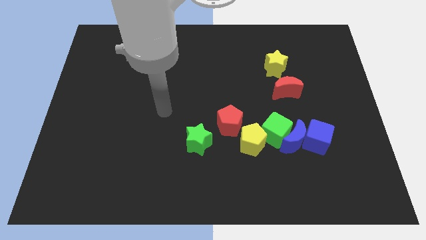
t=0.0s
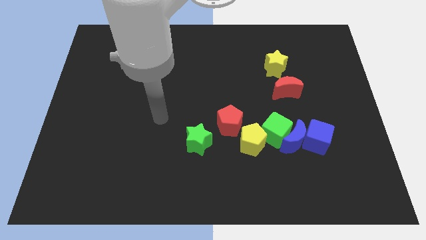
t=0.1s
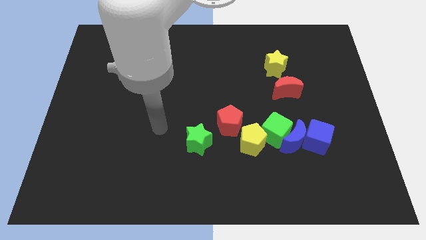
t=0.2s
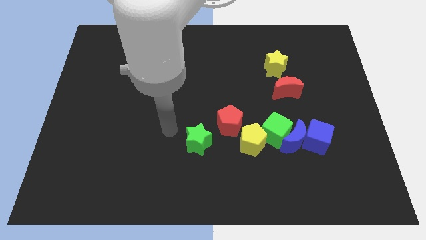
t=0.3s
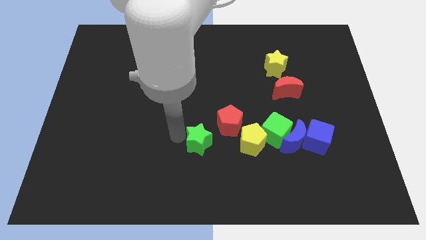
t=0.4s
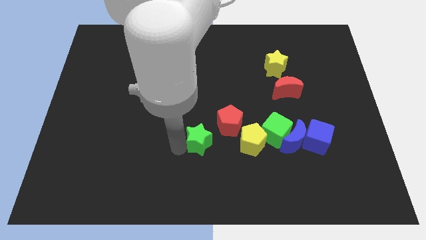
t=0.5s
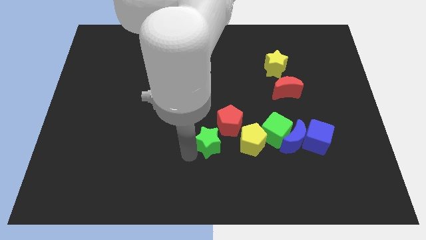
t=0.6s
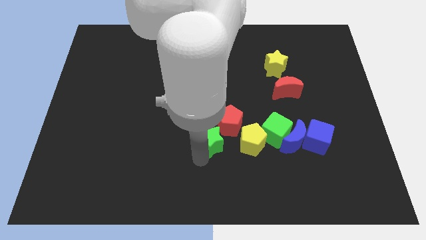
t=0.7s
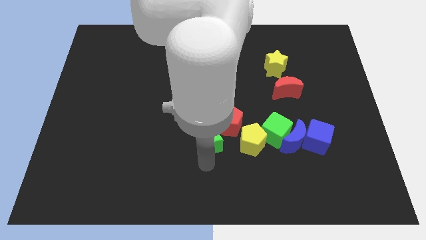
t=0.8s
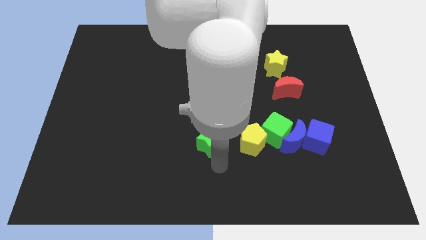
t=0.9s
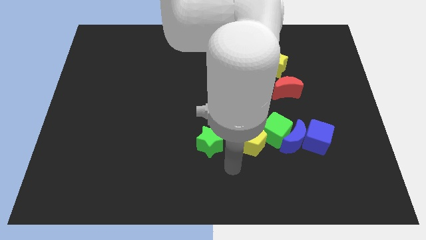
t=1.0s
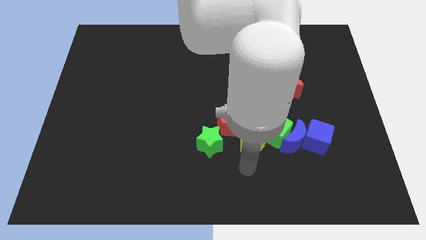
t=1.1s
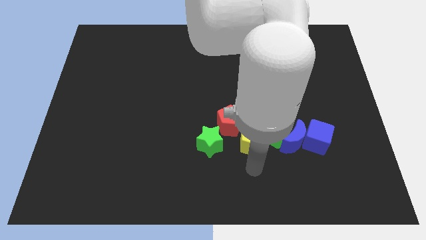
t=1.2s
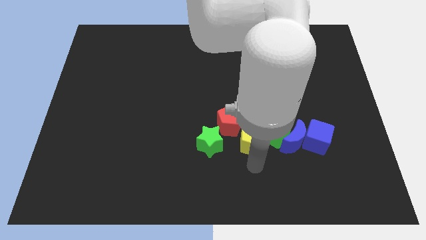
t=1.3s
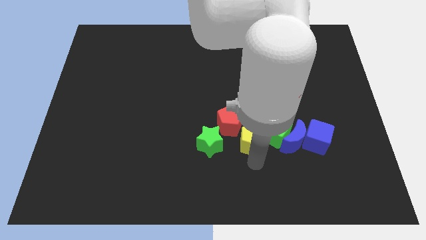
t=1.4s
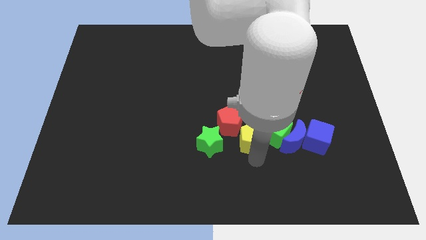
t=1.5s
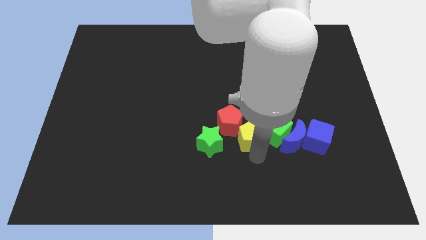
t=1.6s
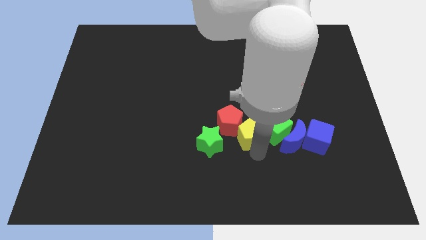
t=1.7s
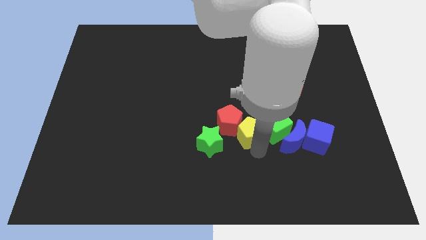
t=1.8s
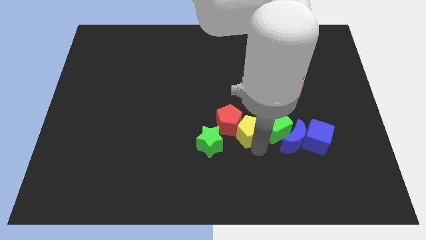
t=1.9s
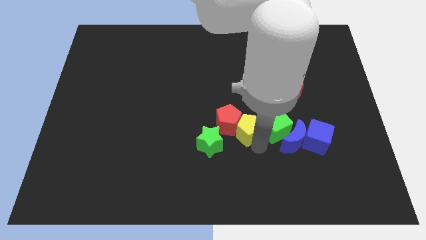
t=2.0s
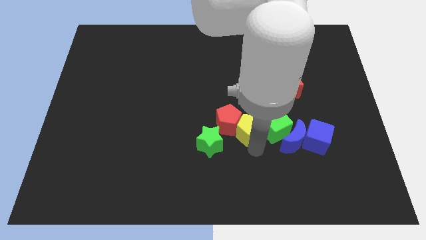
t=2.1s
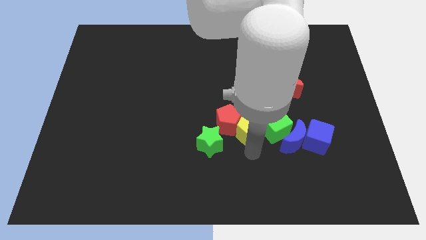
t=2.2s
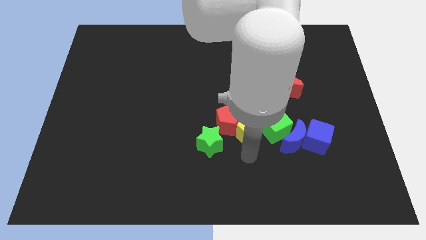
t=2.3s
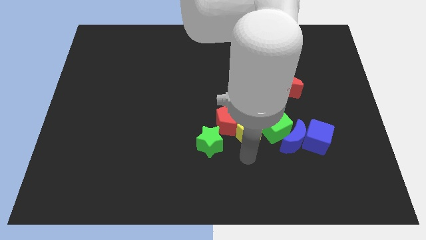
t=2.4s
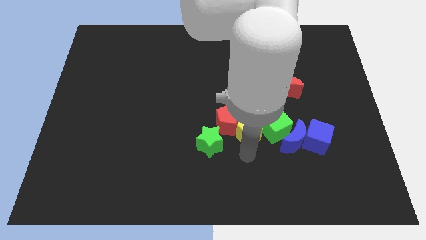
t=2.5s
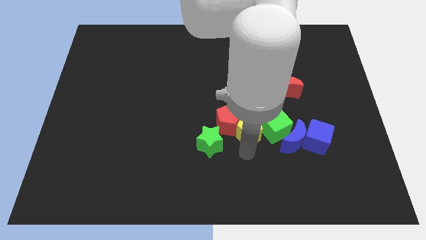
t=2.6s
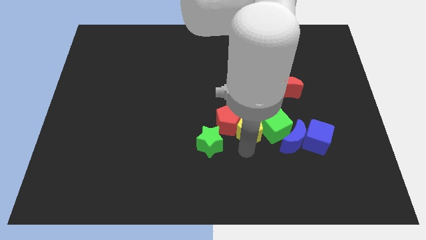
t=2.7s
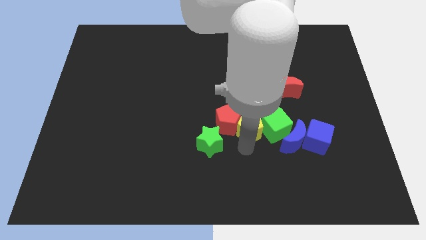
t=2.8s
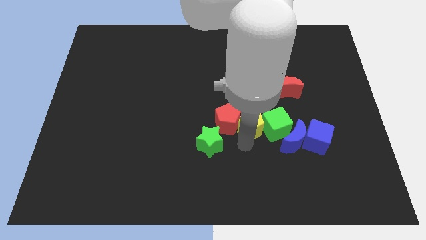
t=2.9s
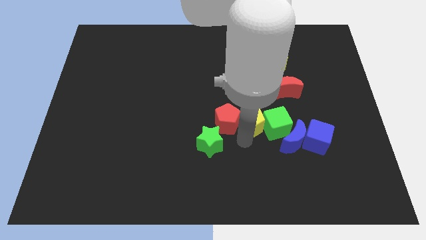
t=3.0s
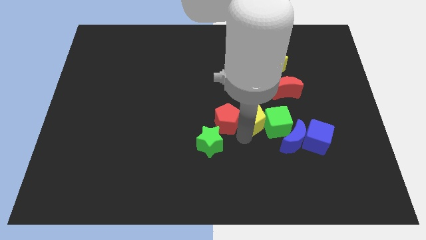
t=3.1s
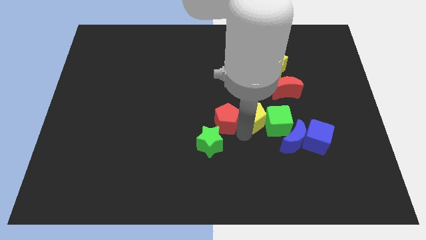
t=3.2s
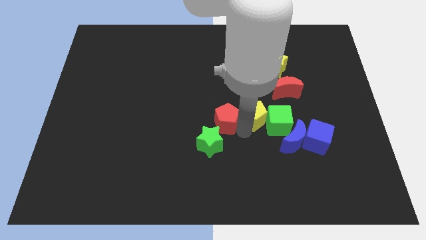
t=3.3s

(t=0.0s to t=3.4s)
move the yellow pentagon up a little bit

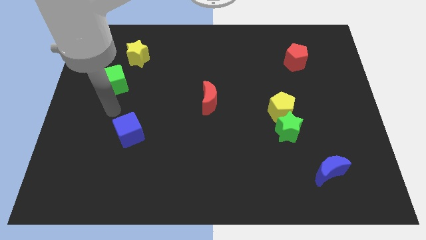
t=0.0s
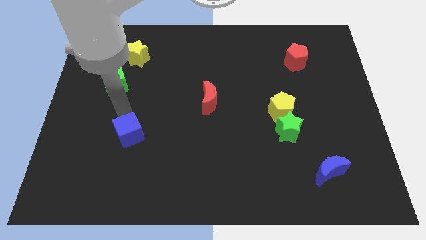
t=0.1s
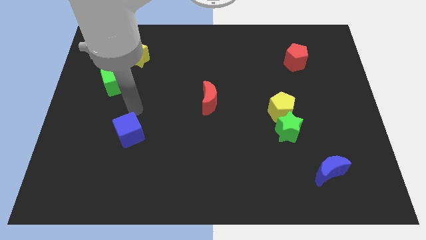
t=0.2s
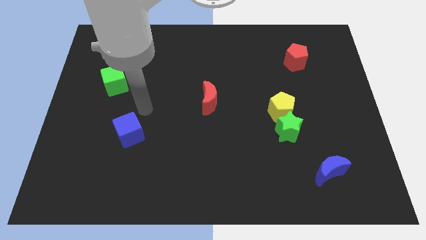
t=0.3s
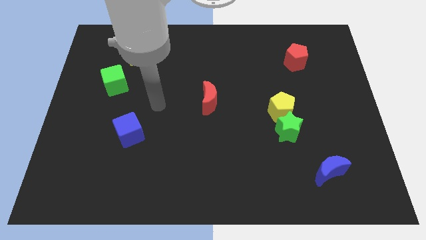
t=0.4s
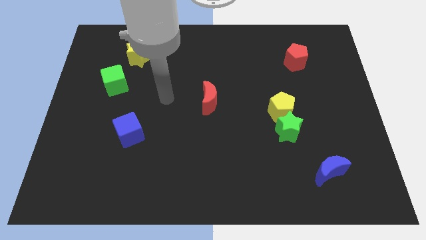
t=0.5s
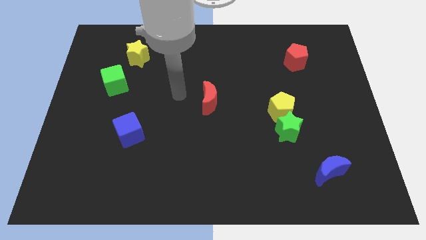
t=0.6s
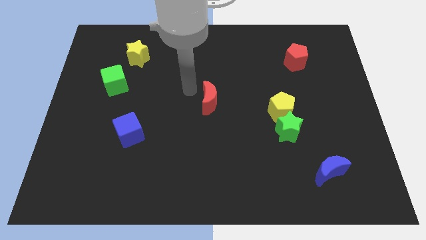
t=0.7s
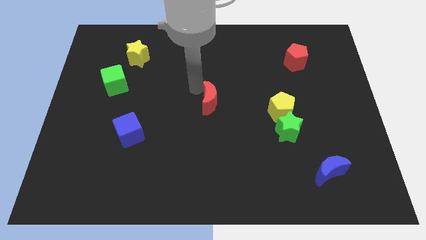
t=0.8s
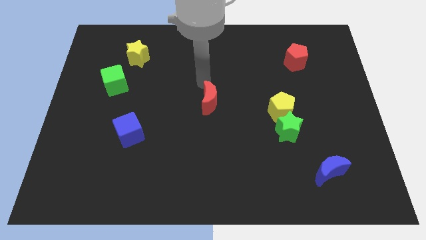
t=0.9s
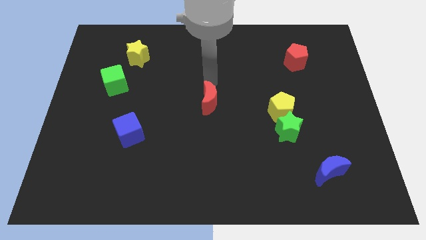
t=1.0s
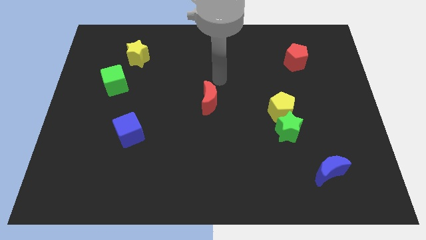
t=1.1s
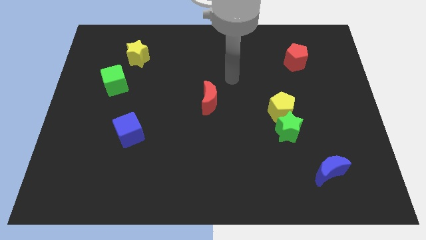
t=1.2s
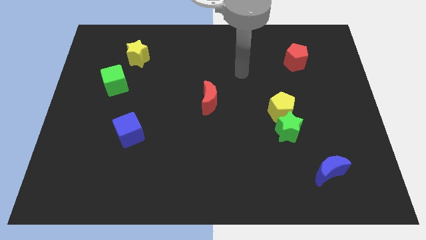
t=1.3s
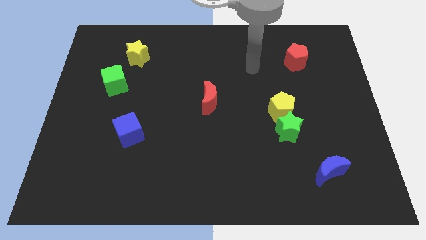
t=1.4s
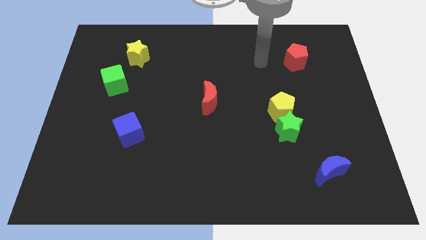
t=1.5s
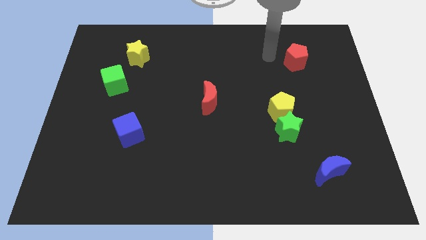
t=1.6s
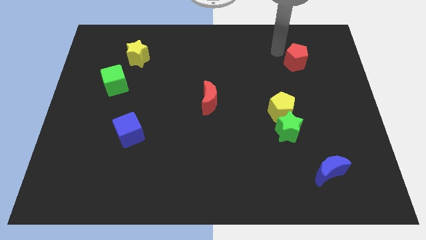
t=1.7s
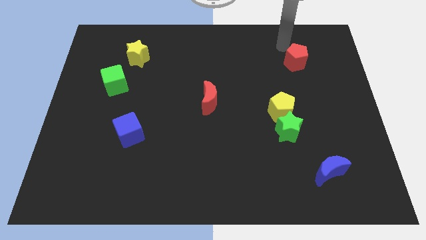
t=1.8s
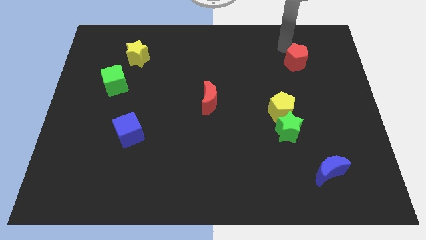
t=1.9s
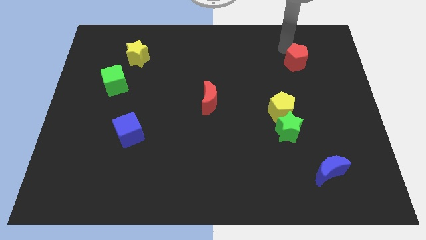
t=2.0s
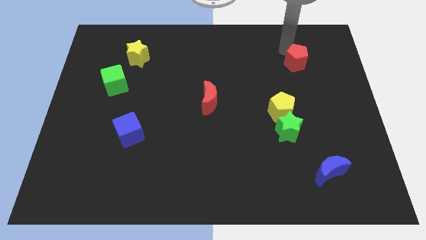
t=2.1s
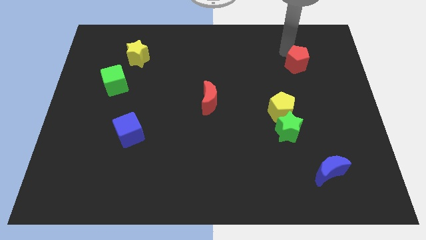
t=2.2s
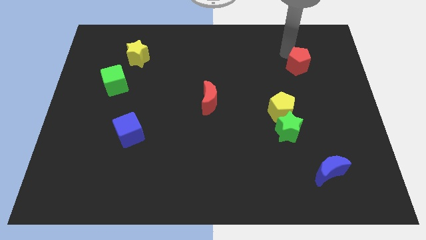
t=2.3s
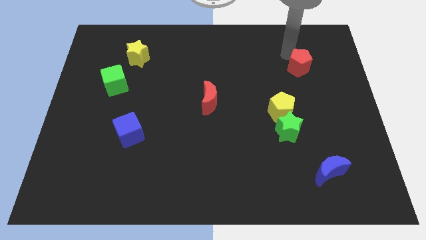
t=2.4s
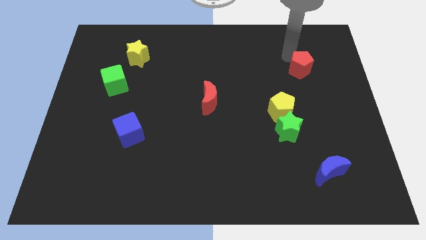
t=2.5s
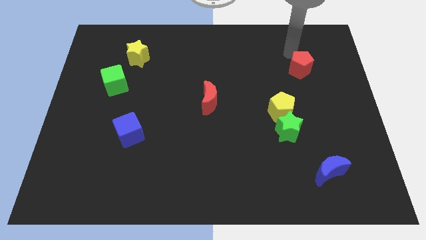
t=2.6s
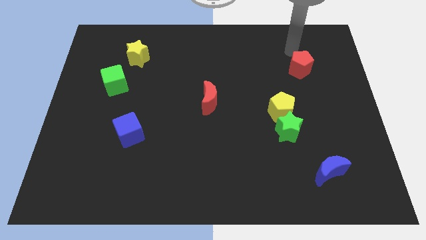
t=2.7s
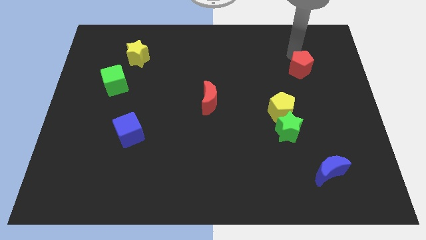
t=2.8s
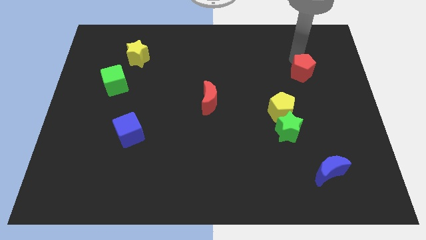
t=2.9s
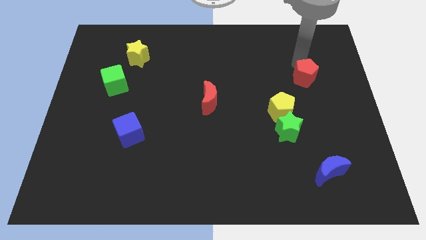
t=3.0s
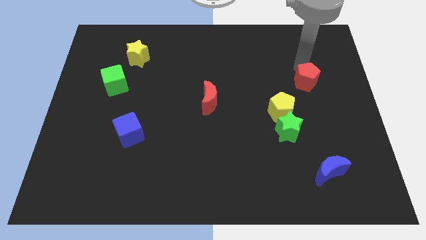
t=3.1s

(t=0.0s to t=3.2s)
slightly push the red pentagon downwards

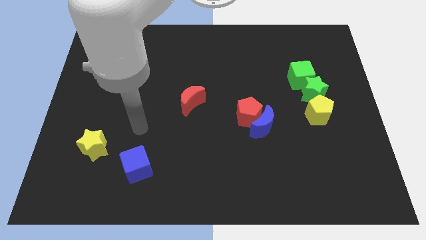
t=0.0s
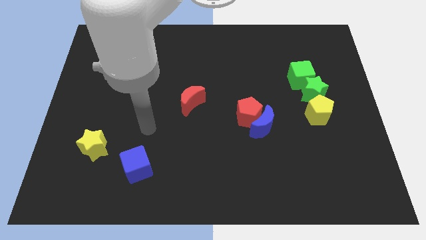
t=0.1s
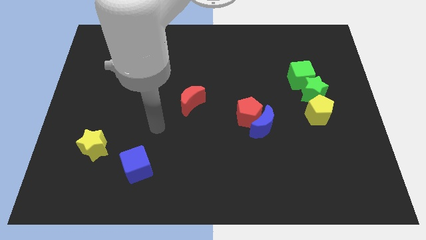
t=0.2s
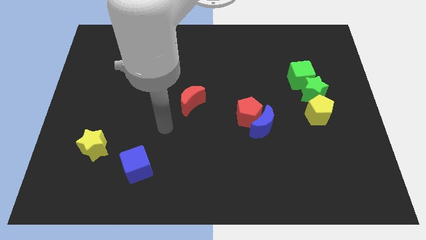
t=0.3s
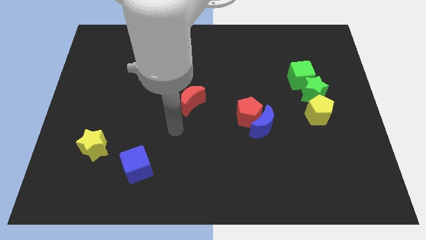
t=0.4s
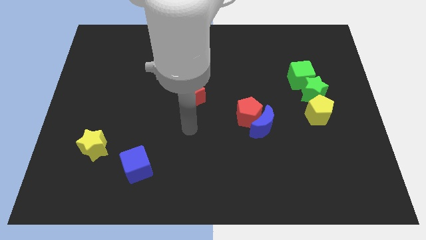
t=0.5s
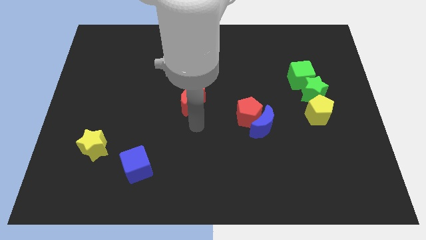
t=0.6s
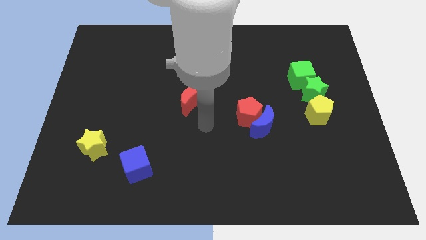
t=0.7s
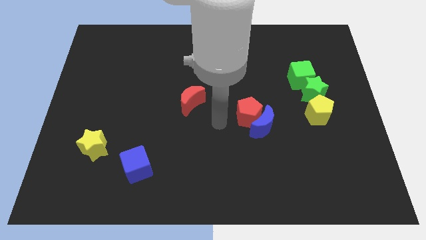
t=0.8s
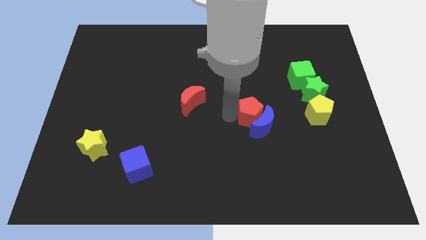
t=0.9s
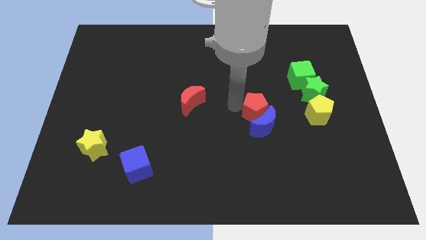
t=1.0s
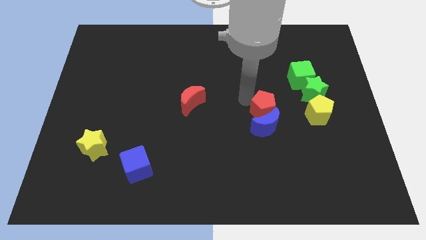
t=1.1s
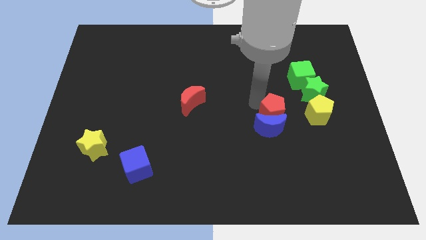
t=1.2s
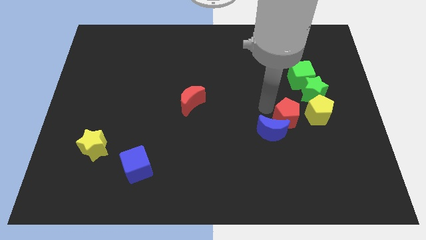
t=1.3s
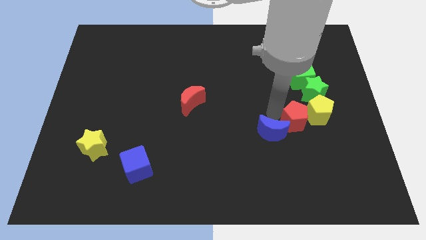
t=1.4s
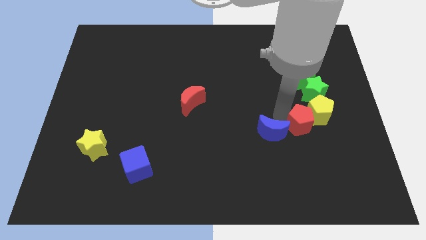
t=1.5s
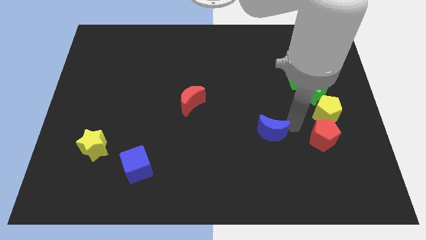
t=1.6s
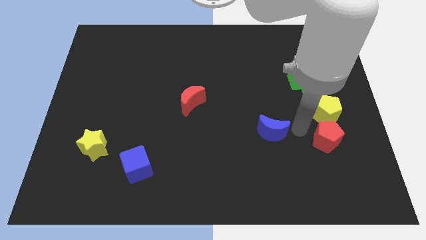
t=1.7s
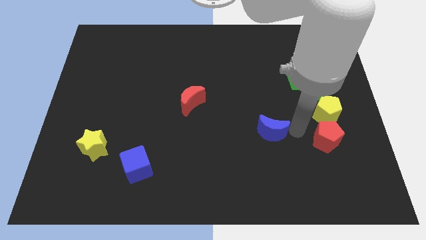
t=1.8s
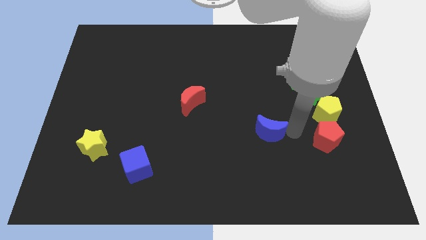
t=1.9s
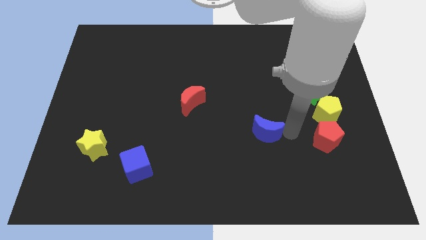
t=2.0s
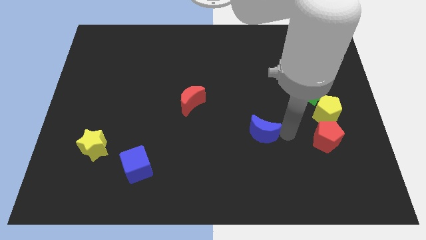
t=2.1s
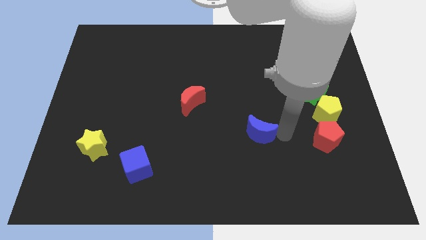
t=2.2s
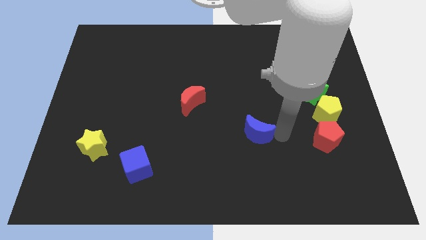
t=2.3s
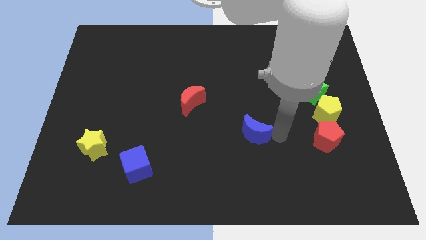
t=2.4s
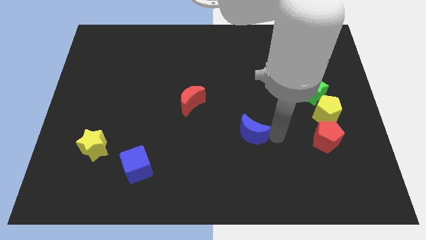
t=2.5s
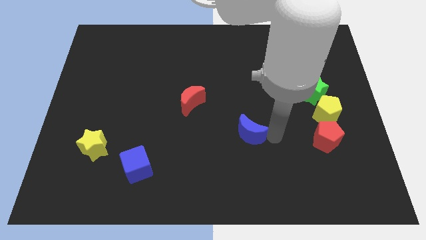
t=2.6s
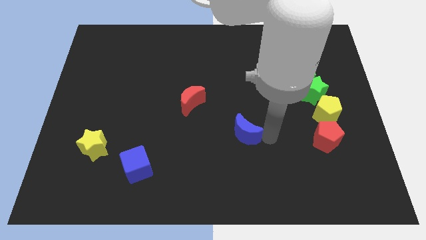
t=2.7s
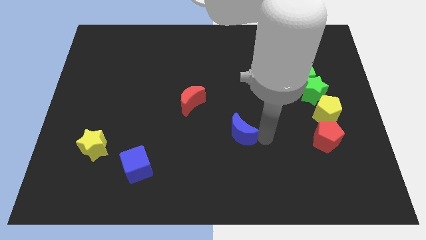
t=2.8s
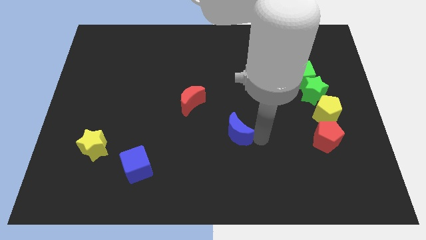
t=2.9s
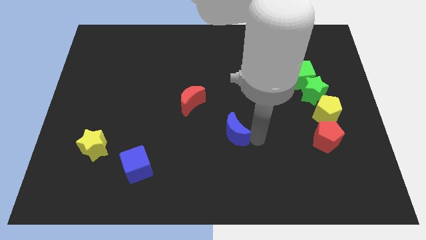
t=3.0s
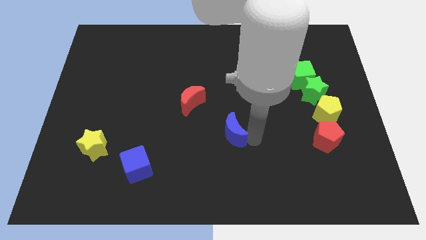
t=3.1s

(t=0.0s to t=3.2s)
slightly move the blue moon left
